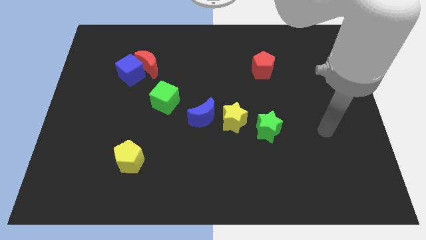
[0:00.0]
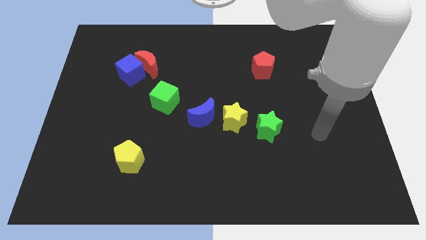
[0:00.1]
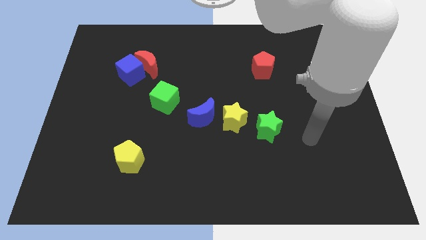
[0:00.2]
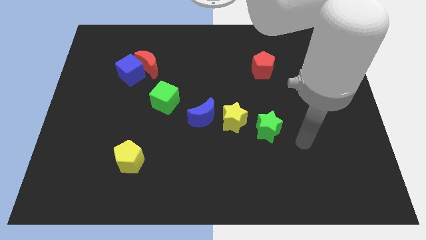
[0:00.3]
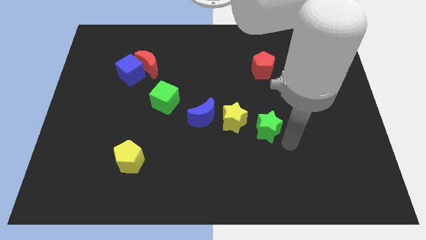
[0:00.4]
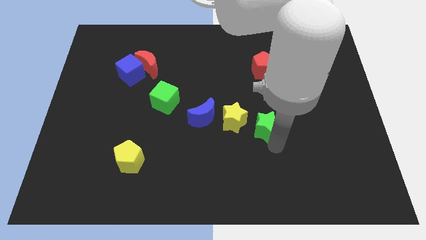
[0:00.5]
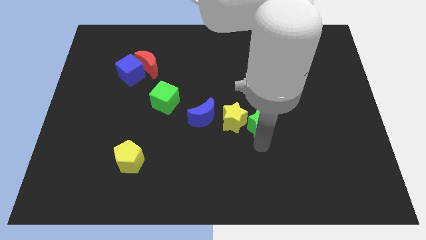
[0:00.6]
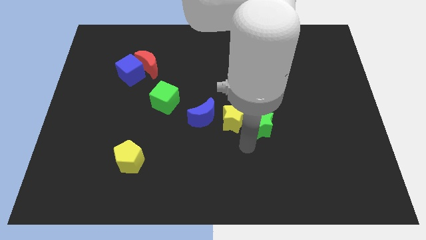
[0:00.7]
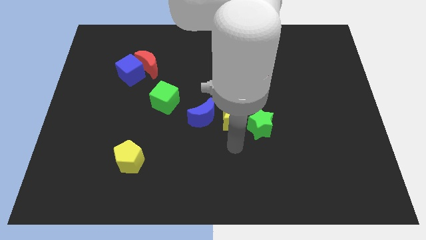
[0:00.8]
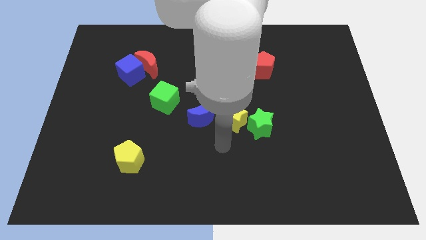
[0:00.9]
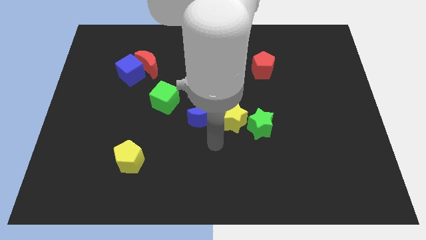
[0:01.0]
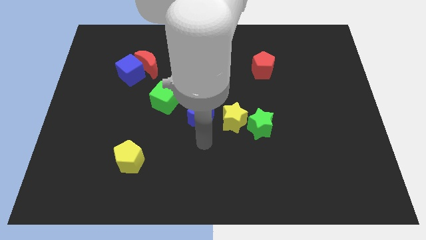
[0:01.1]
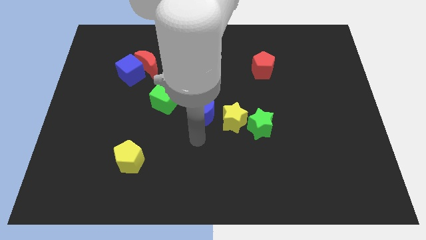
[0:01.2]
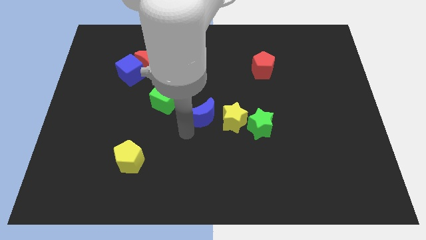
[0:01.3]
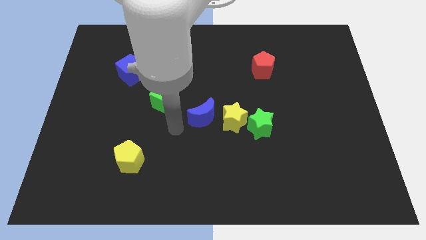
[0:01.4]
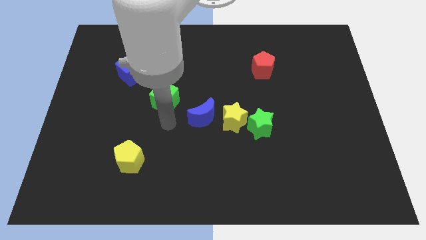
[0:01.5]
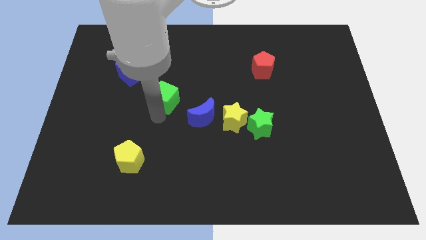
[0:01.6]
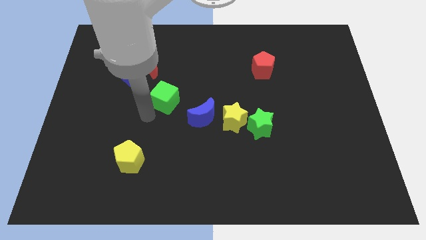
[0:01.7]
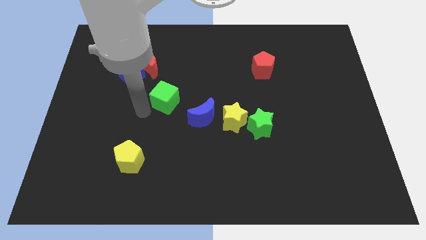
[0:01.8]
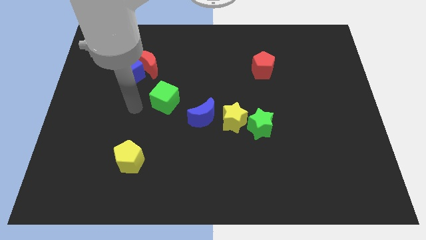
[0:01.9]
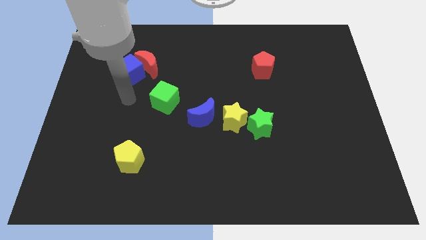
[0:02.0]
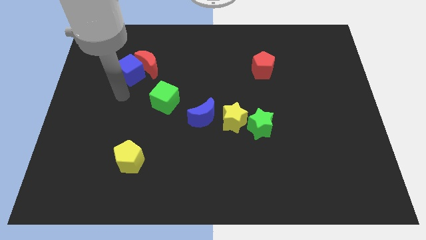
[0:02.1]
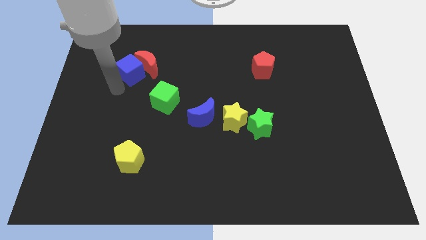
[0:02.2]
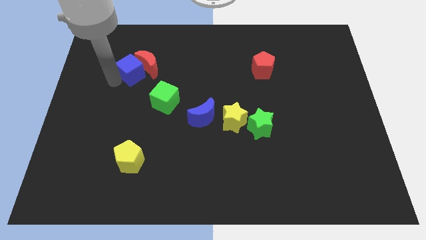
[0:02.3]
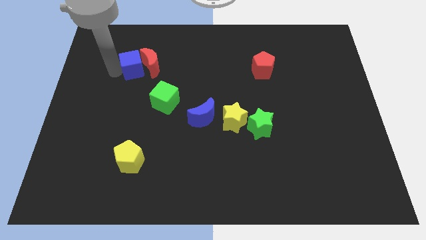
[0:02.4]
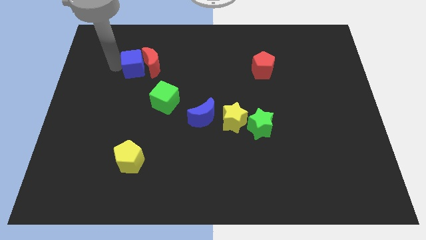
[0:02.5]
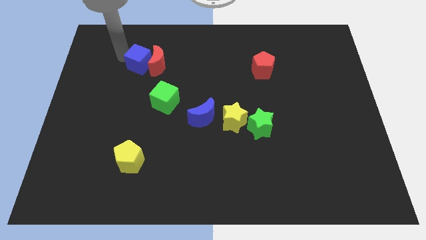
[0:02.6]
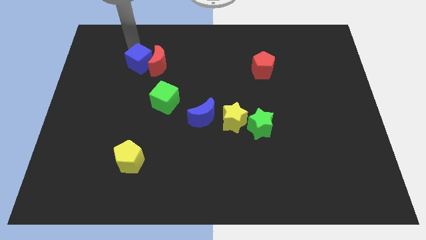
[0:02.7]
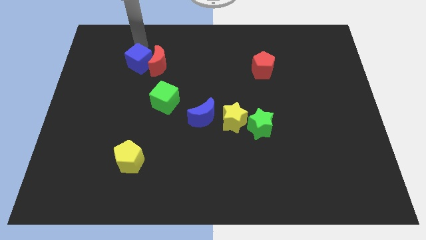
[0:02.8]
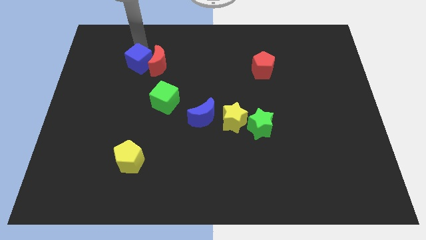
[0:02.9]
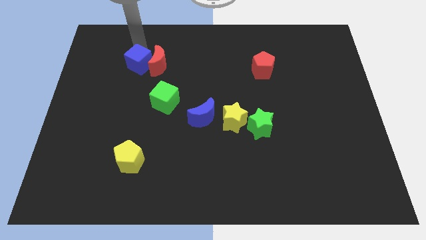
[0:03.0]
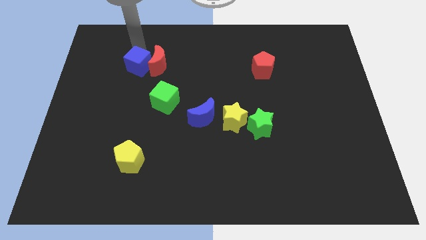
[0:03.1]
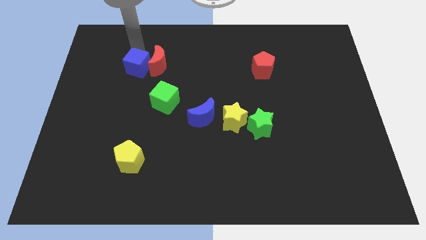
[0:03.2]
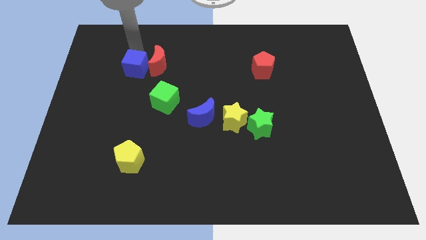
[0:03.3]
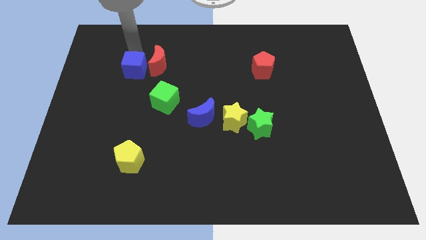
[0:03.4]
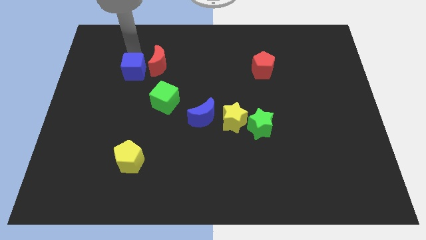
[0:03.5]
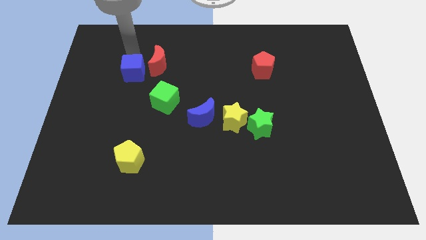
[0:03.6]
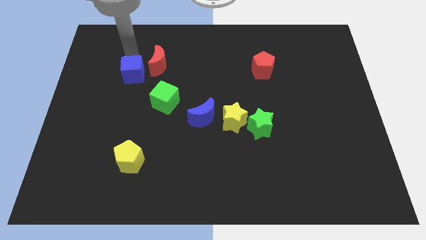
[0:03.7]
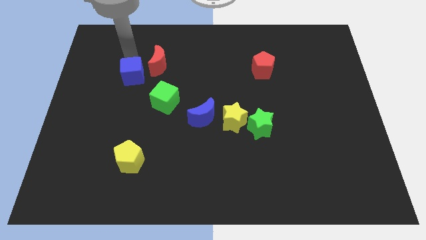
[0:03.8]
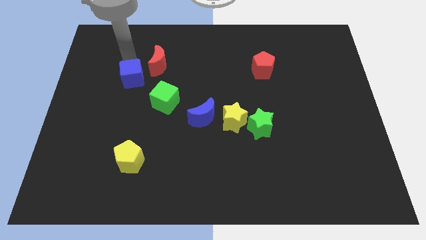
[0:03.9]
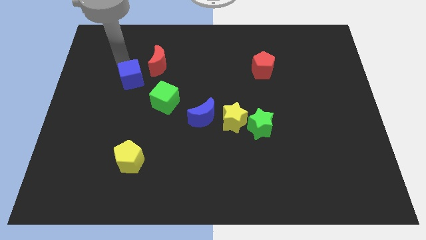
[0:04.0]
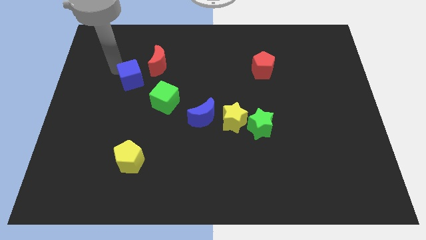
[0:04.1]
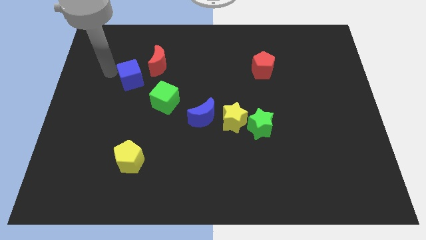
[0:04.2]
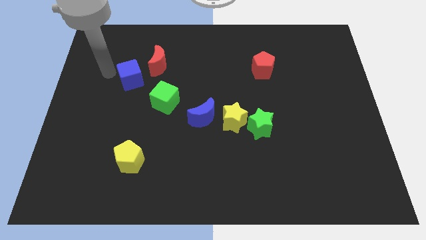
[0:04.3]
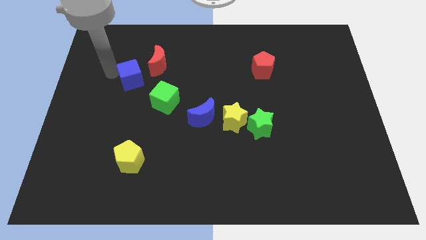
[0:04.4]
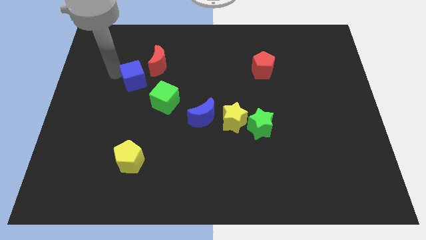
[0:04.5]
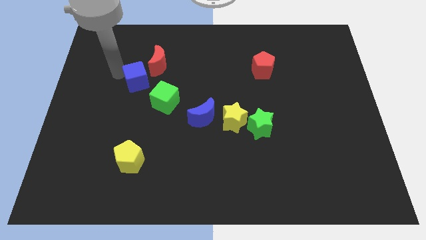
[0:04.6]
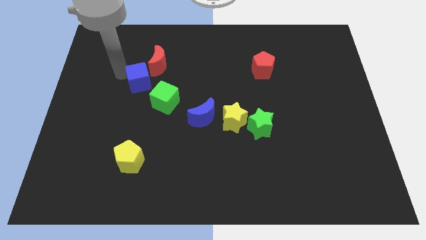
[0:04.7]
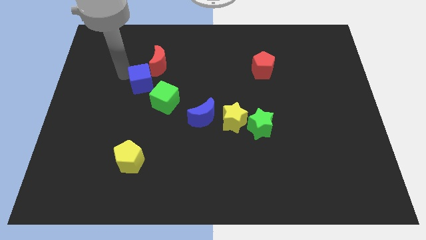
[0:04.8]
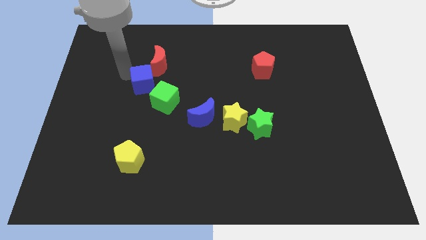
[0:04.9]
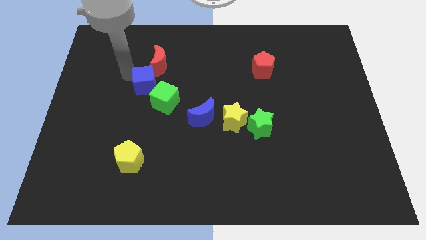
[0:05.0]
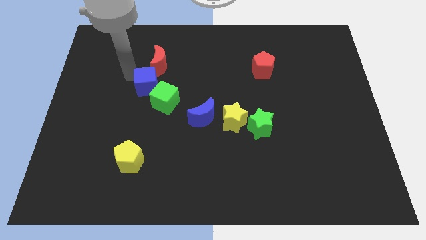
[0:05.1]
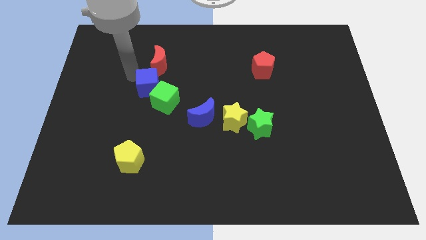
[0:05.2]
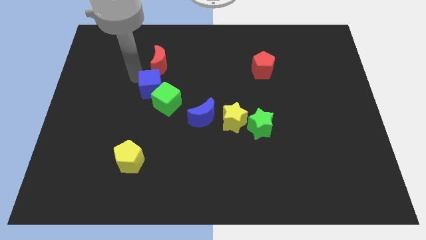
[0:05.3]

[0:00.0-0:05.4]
slide the blue cube diagonally downwards and to the right a bit

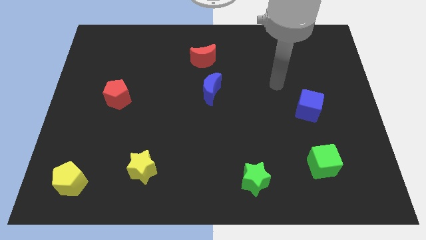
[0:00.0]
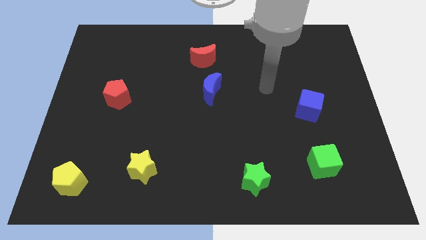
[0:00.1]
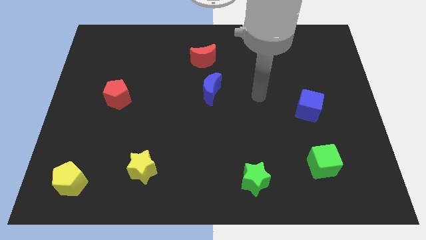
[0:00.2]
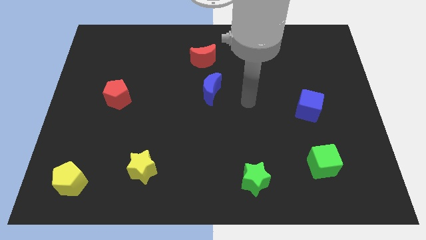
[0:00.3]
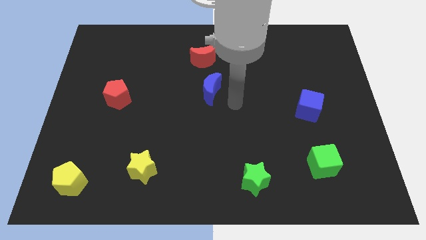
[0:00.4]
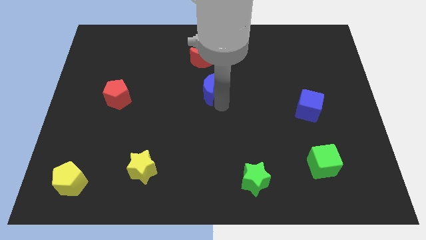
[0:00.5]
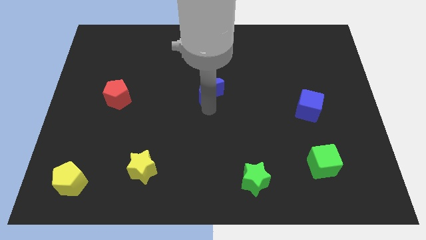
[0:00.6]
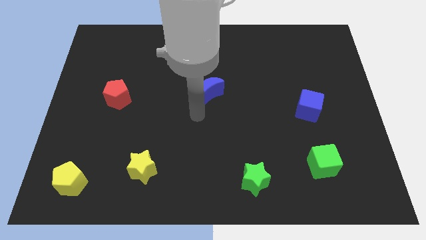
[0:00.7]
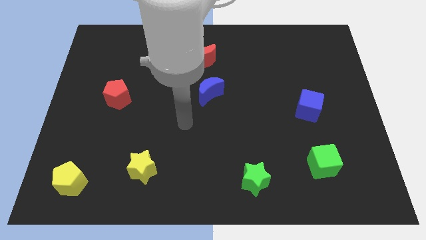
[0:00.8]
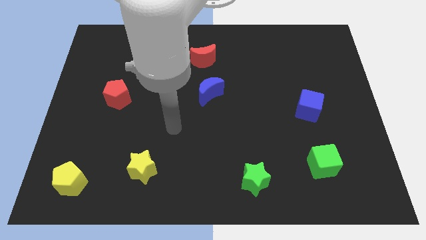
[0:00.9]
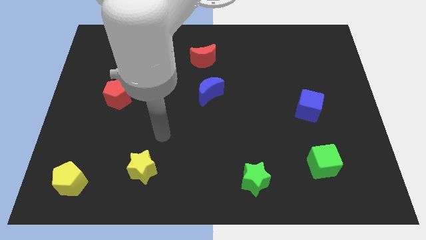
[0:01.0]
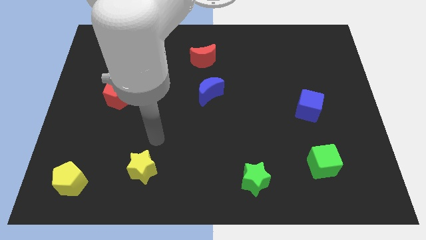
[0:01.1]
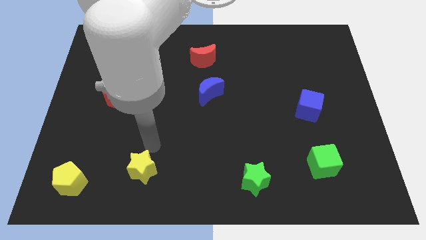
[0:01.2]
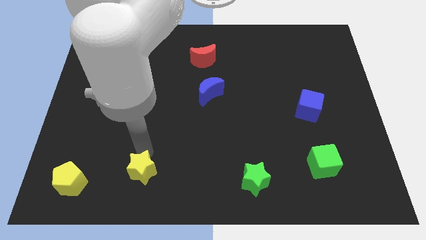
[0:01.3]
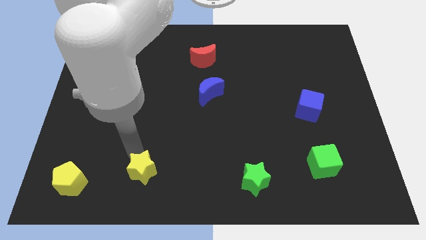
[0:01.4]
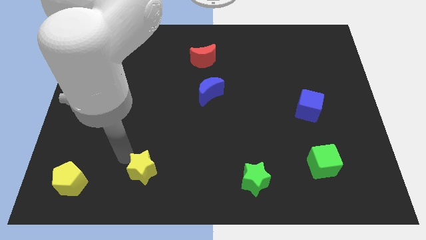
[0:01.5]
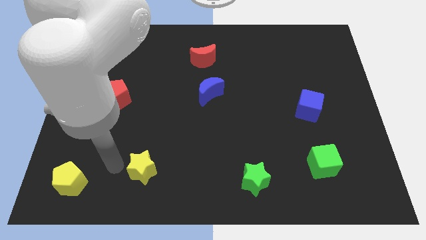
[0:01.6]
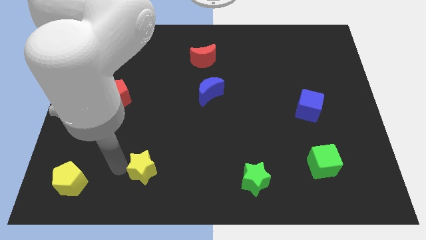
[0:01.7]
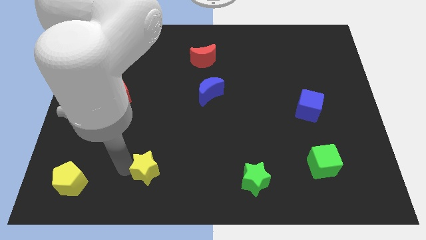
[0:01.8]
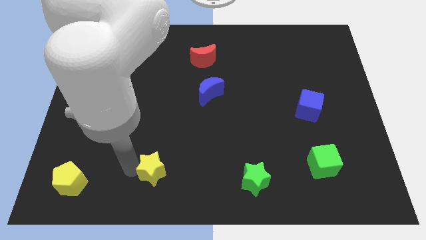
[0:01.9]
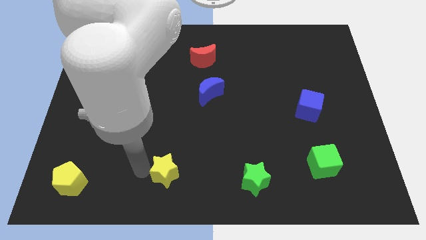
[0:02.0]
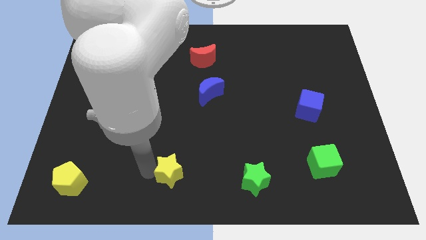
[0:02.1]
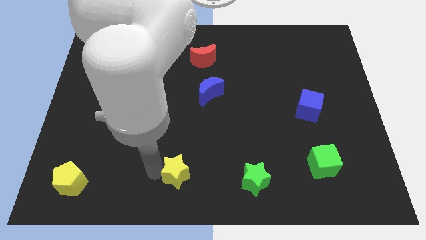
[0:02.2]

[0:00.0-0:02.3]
slightly push the yellow star to the right
